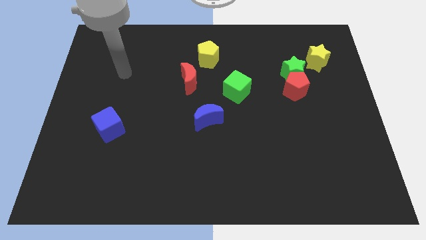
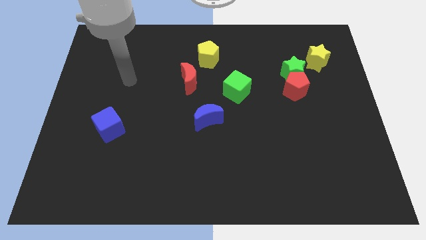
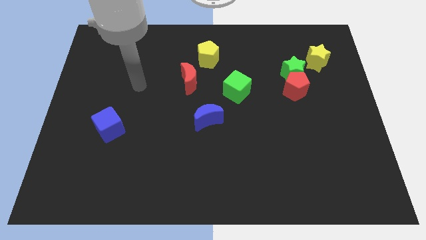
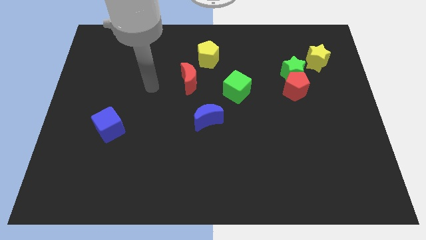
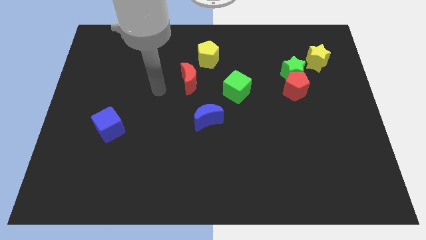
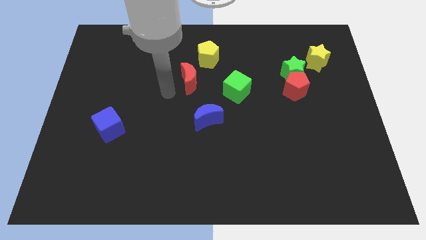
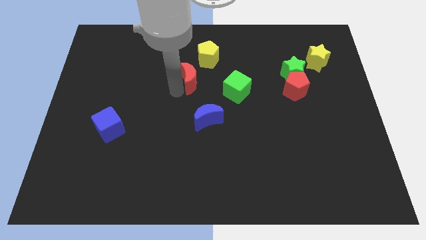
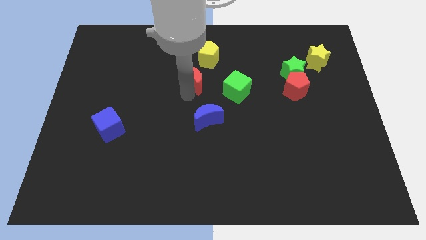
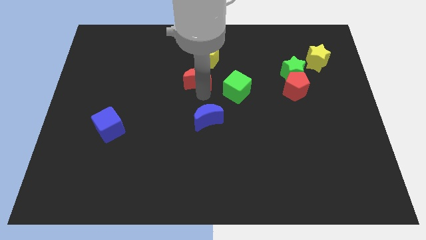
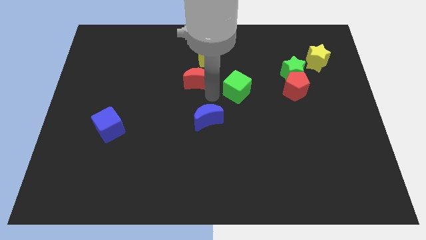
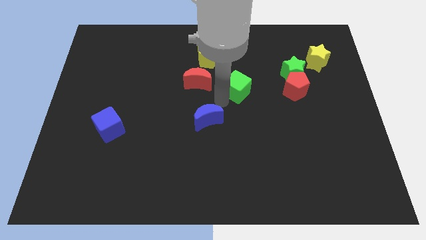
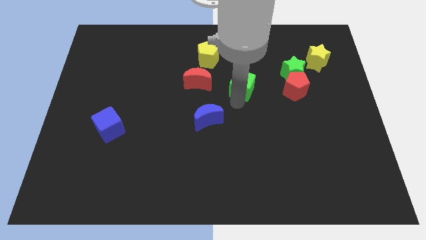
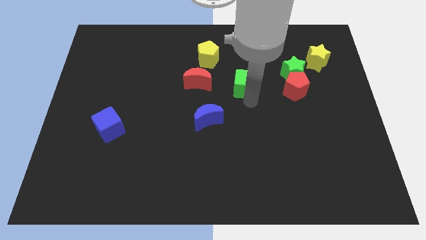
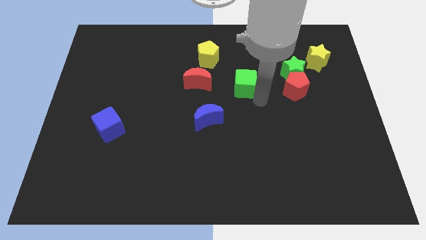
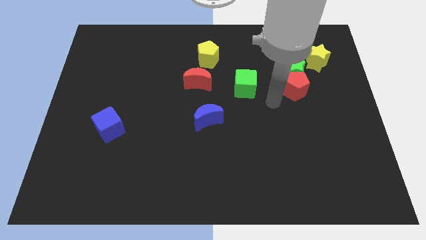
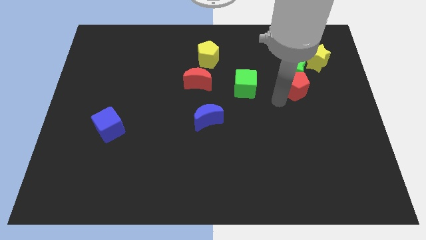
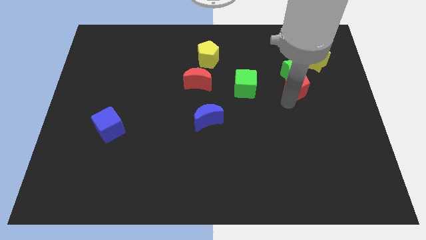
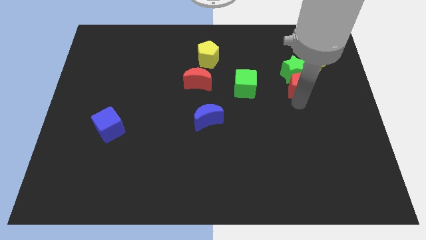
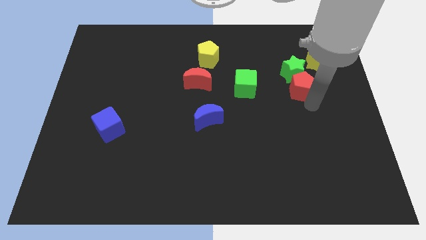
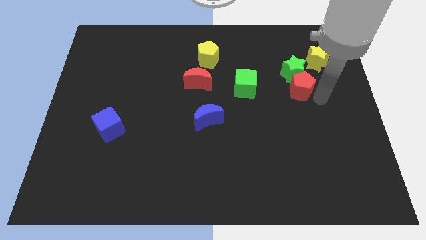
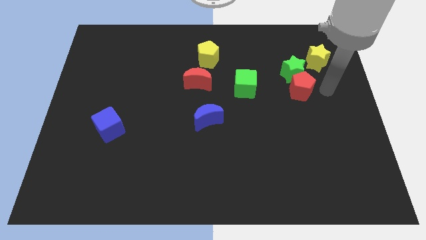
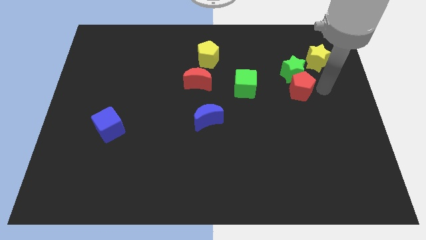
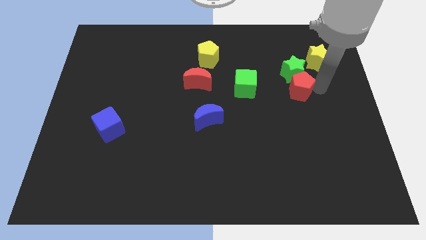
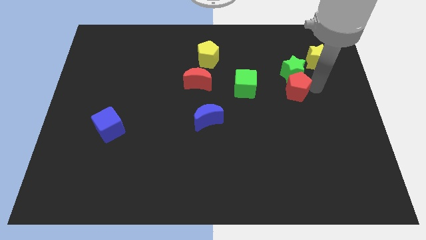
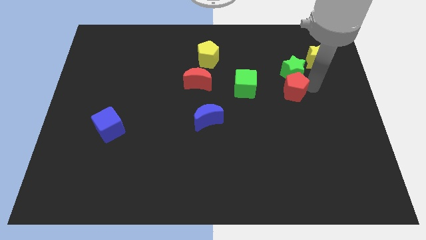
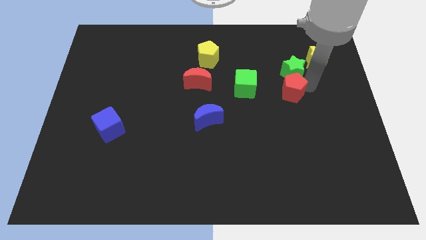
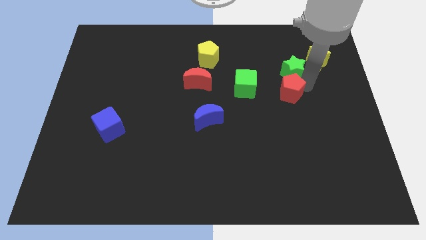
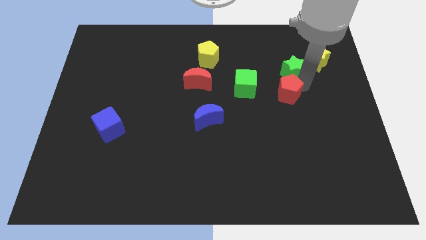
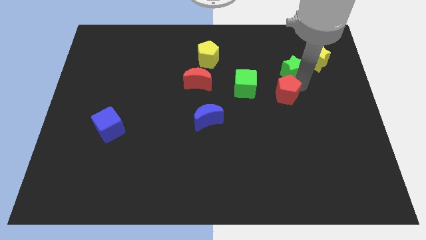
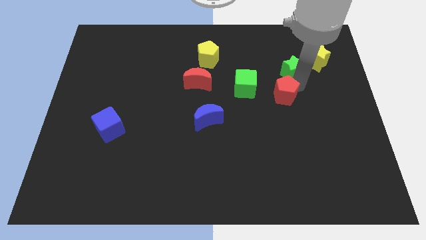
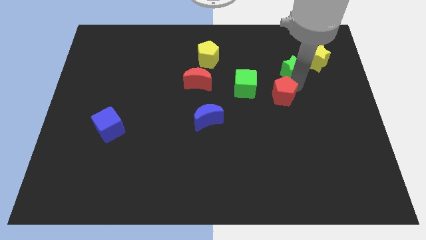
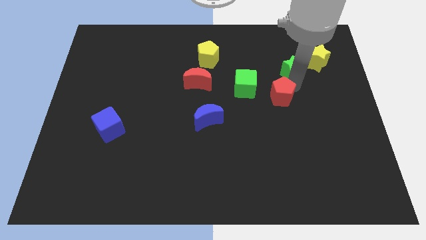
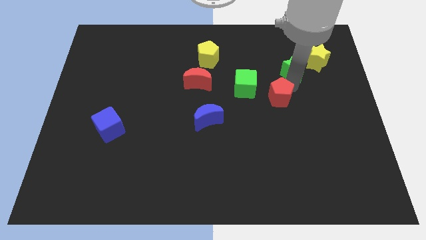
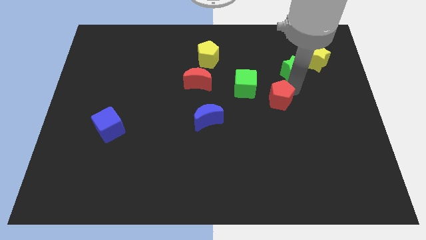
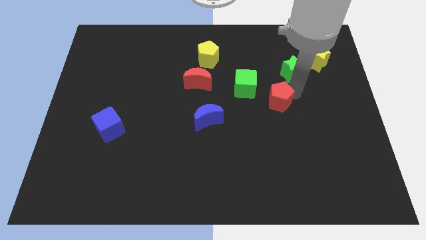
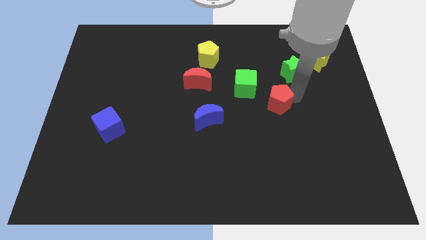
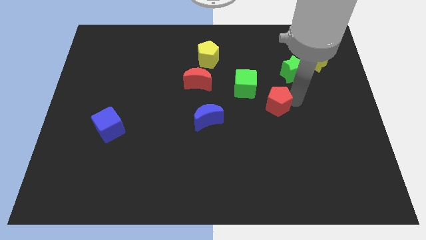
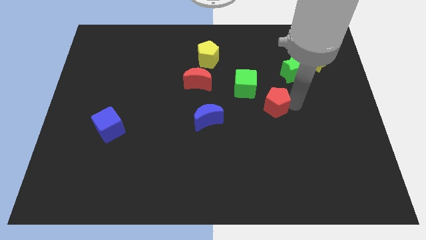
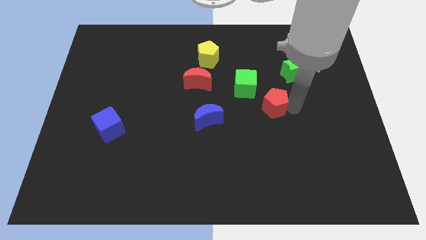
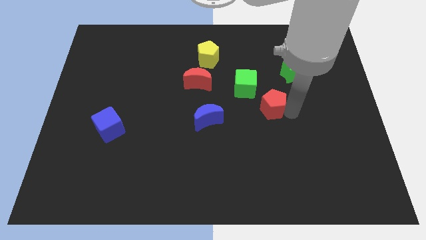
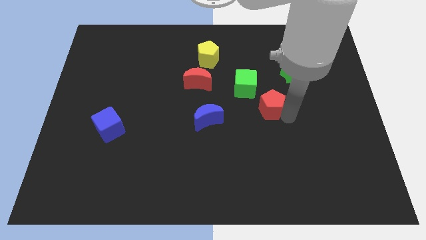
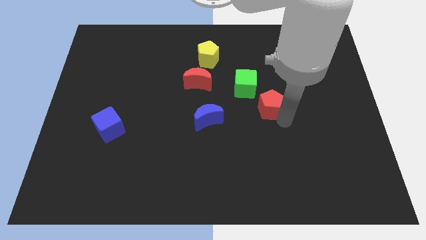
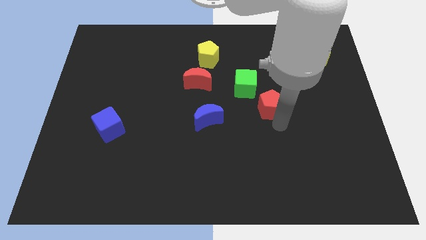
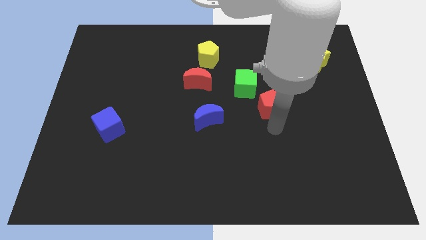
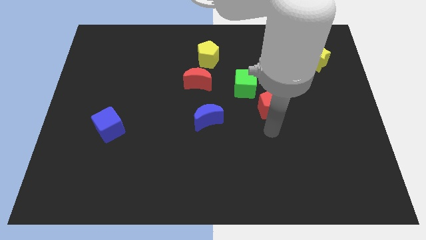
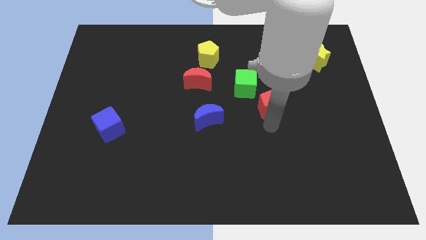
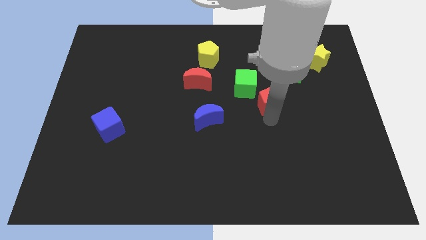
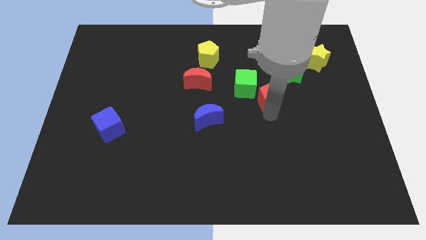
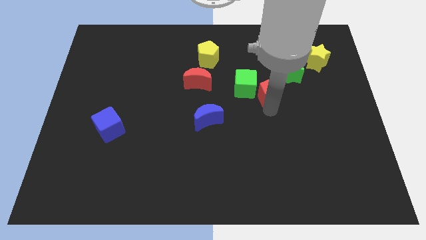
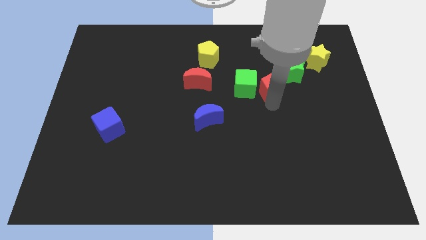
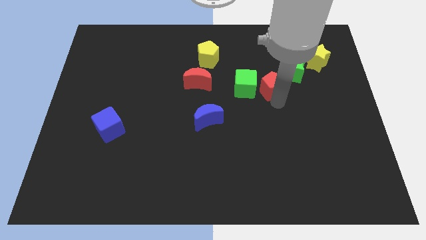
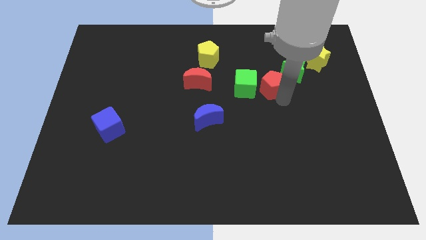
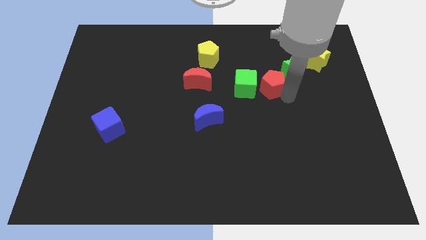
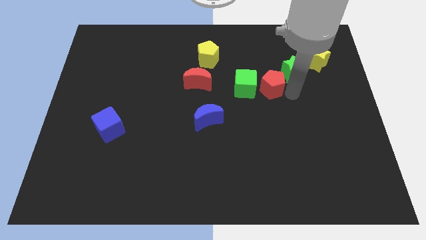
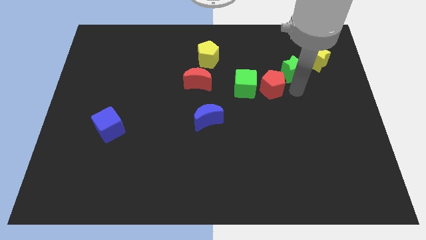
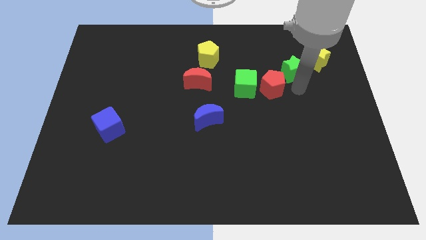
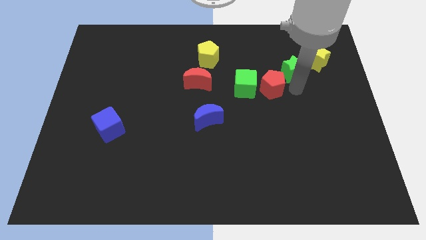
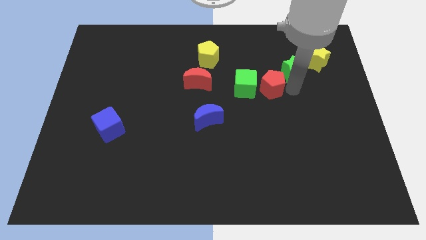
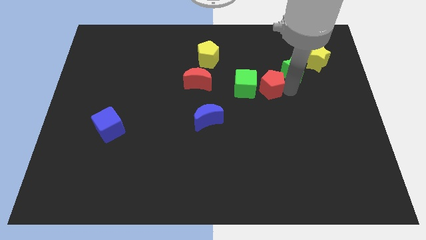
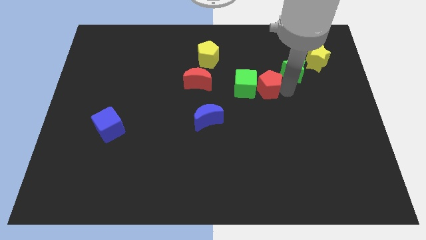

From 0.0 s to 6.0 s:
move the red pentagon close to the green cube

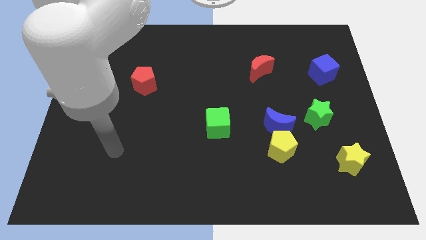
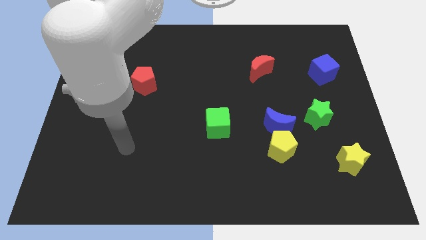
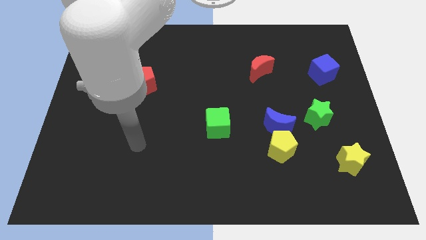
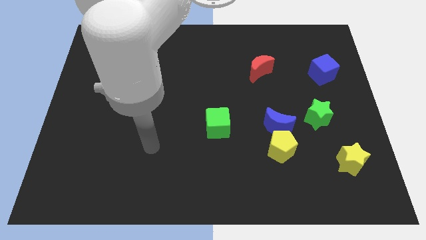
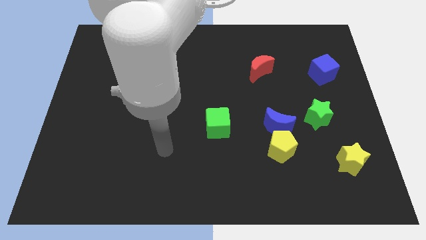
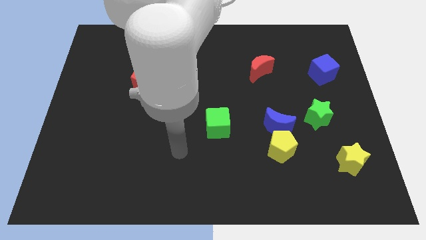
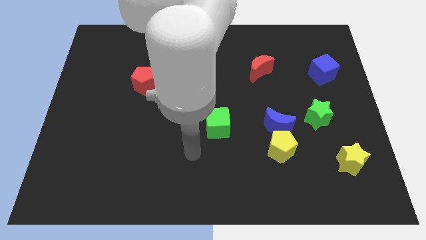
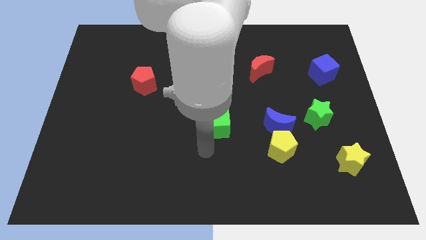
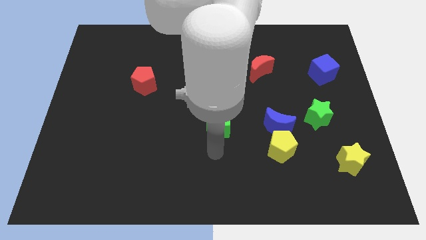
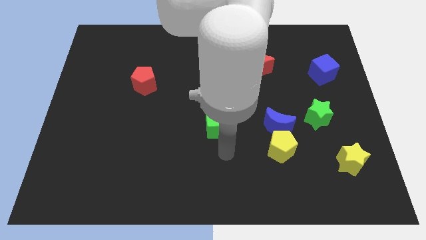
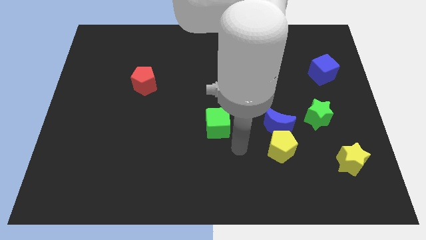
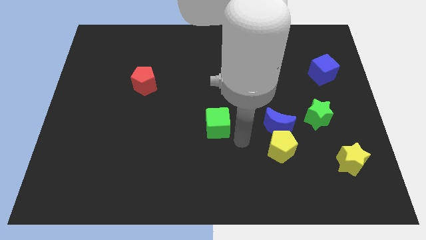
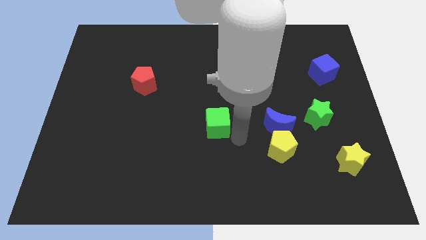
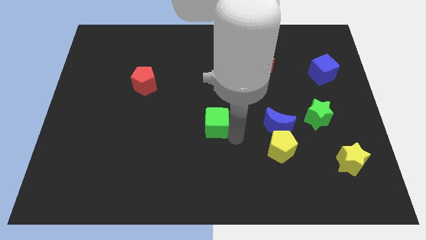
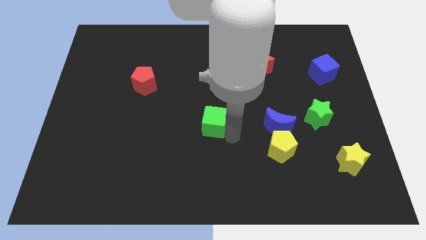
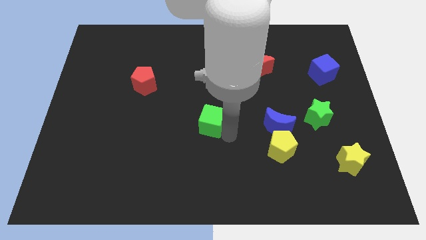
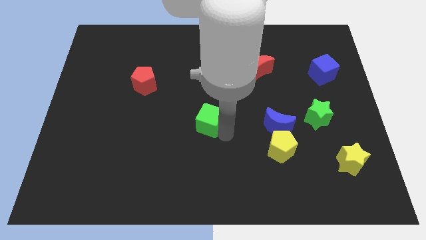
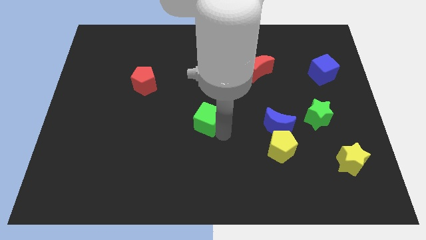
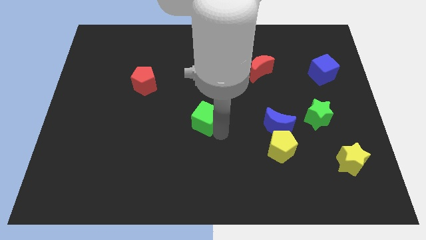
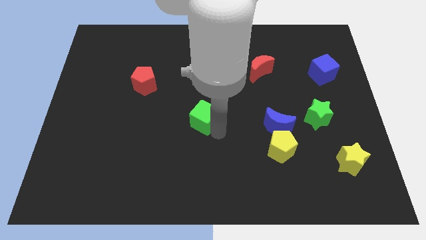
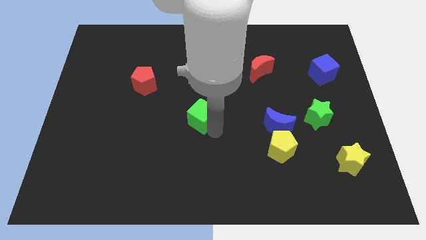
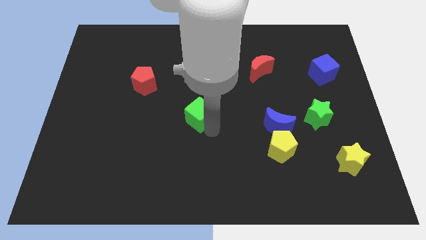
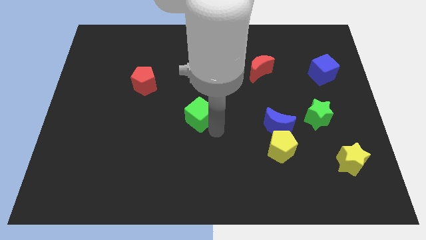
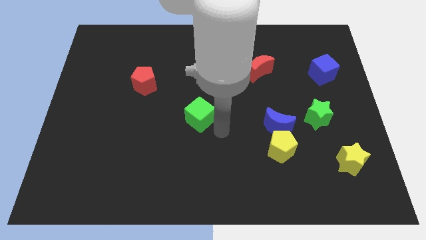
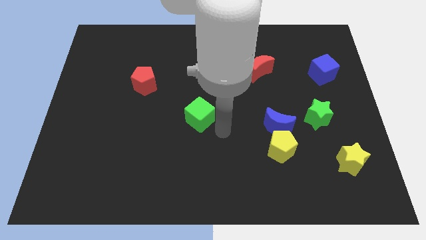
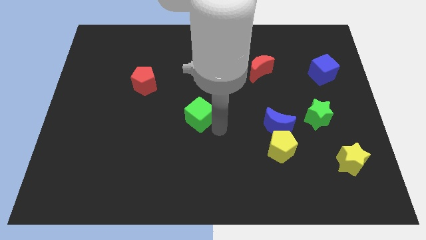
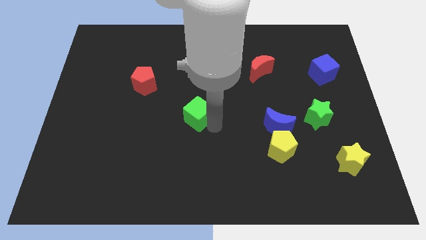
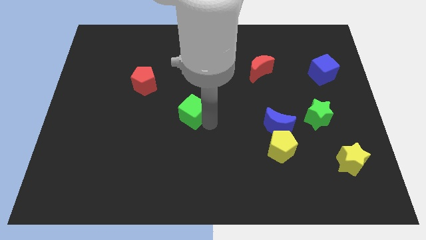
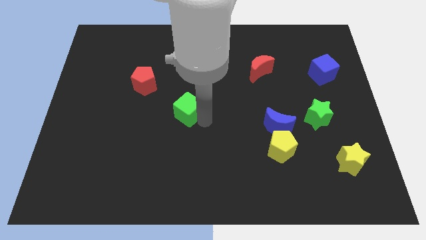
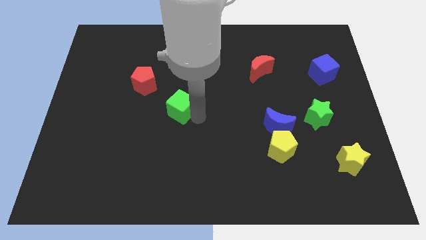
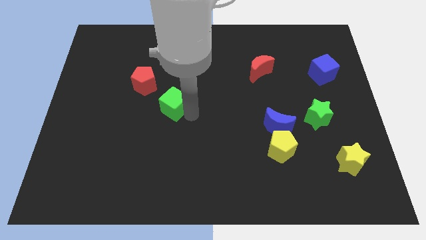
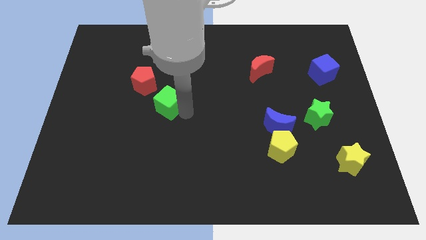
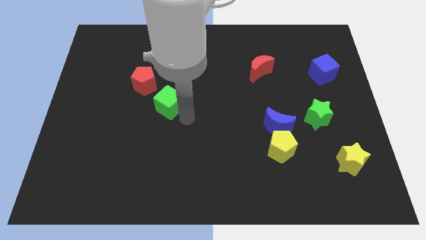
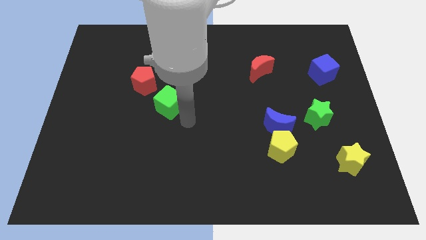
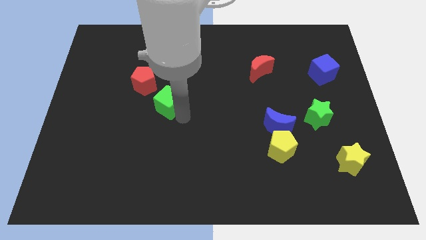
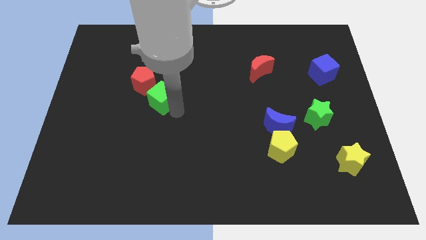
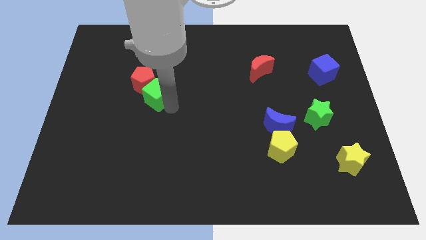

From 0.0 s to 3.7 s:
move the green cube to the red pentagon
